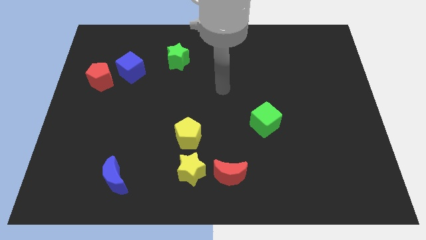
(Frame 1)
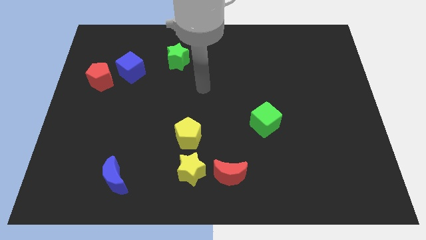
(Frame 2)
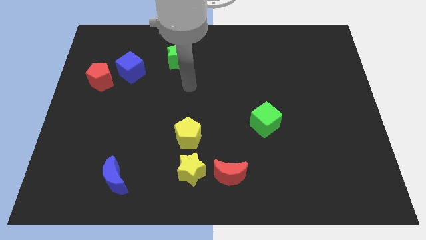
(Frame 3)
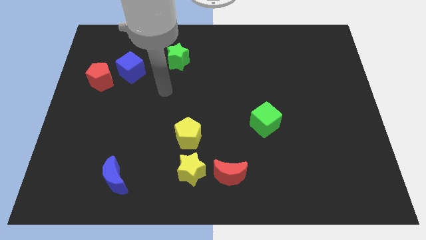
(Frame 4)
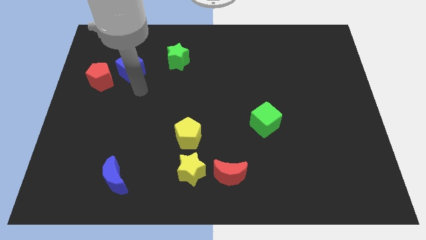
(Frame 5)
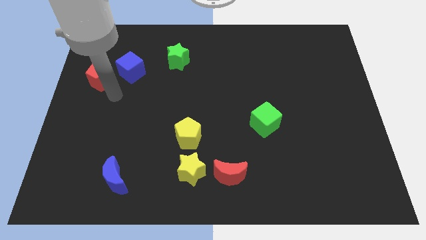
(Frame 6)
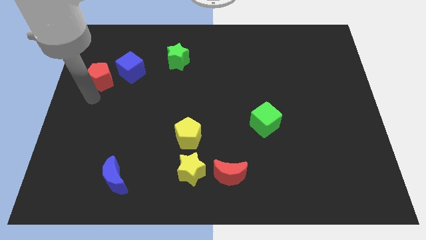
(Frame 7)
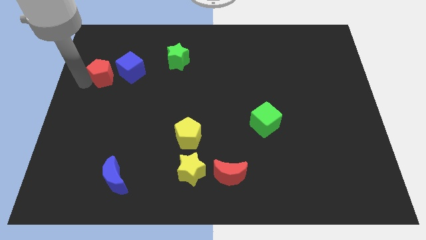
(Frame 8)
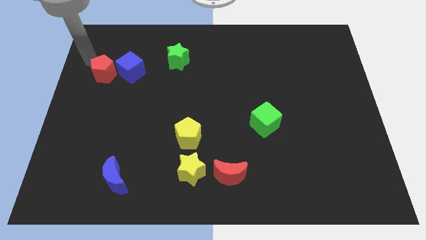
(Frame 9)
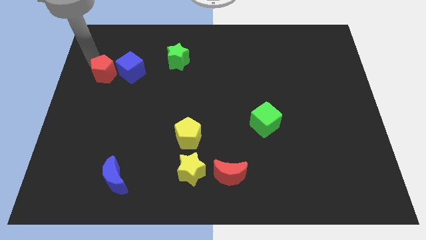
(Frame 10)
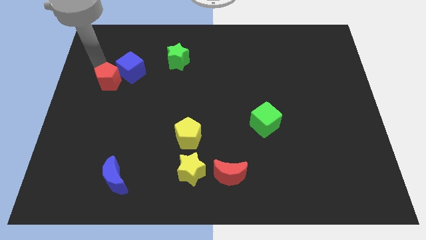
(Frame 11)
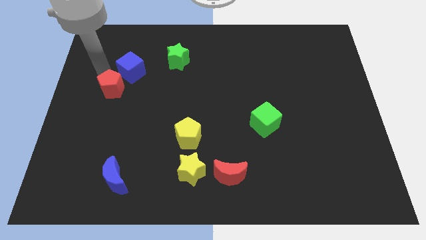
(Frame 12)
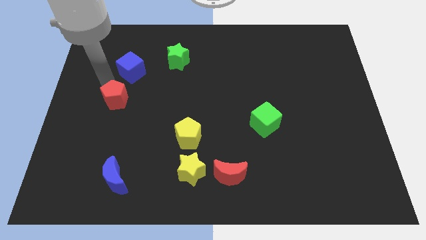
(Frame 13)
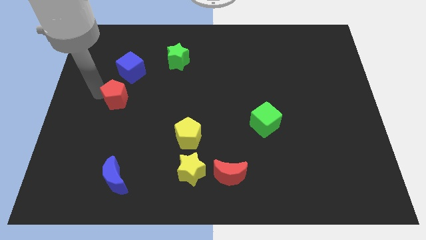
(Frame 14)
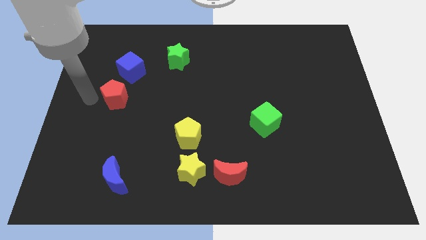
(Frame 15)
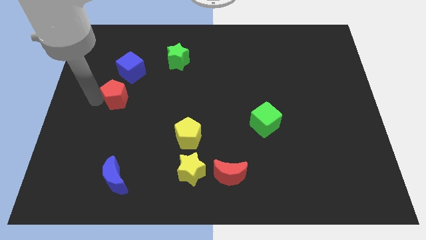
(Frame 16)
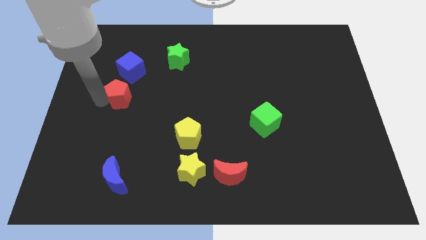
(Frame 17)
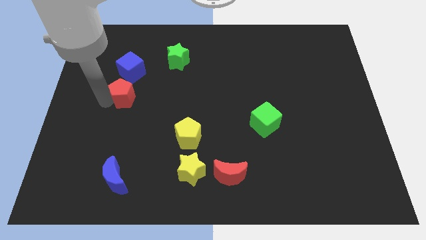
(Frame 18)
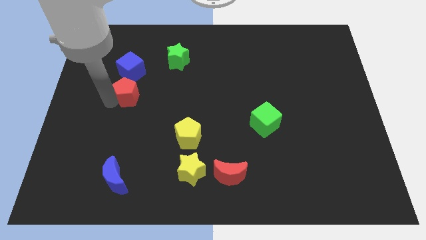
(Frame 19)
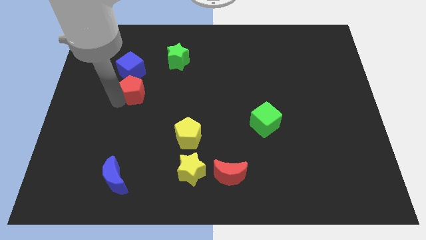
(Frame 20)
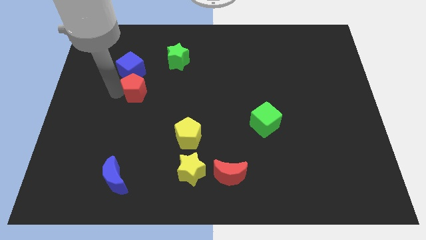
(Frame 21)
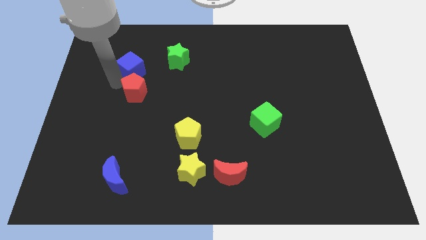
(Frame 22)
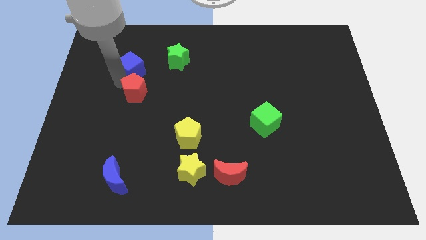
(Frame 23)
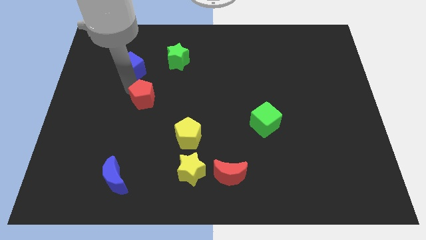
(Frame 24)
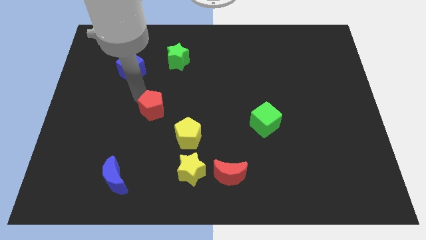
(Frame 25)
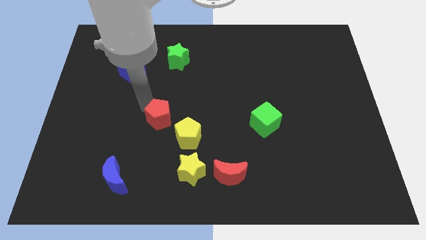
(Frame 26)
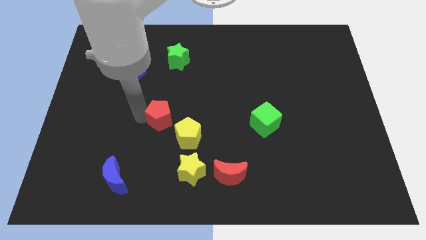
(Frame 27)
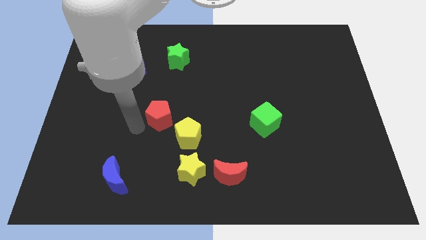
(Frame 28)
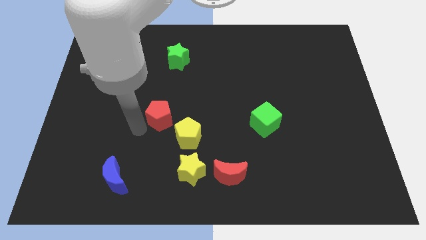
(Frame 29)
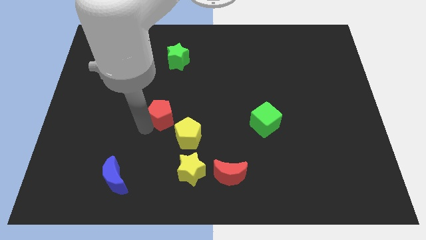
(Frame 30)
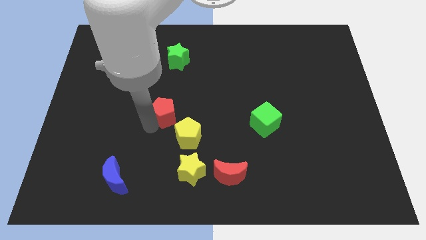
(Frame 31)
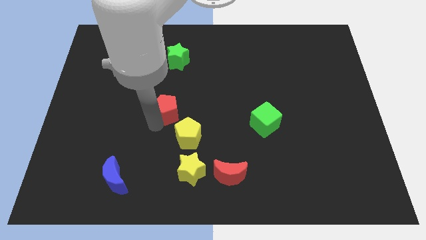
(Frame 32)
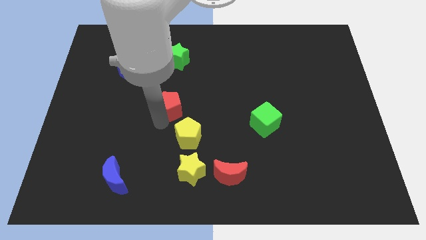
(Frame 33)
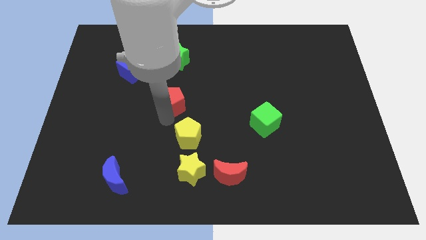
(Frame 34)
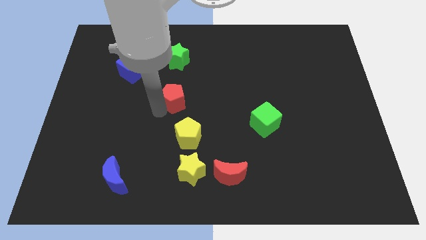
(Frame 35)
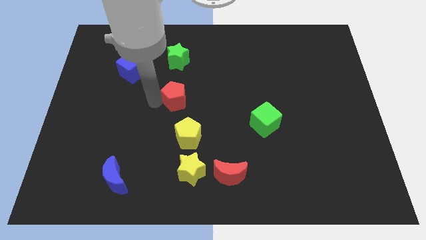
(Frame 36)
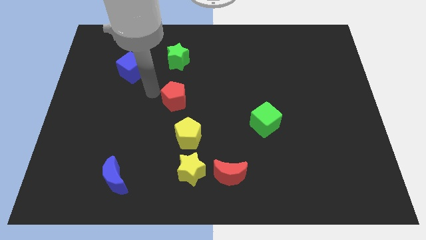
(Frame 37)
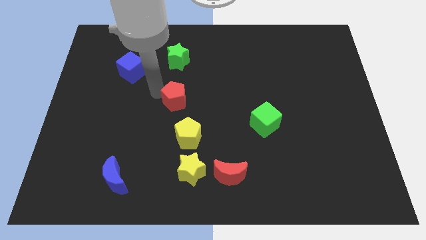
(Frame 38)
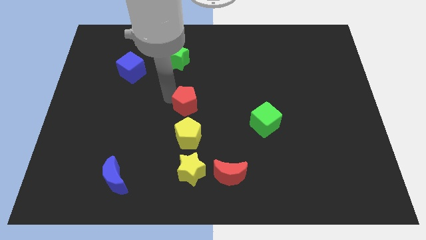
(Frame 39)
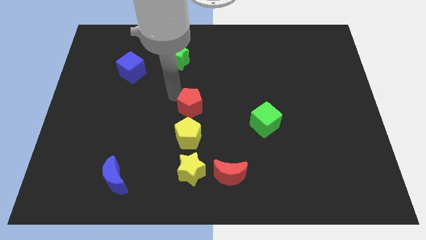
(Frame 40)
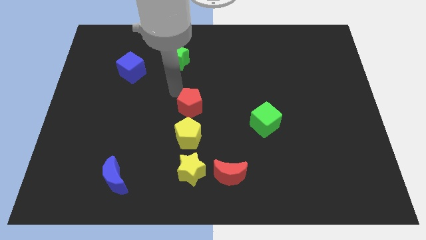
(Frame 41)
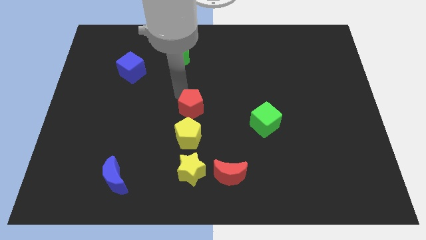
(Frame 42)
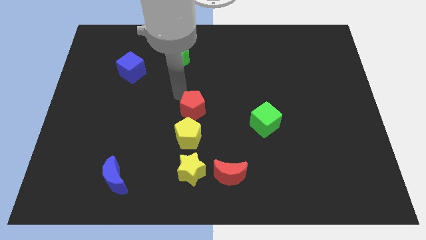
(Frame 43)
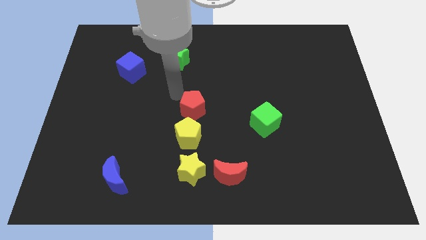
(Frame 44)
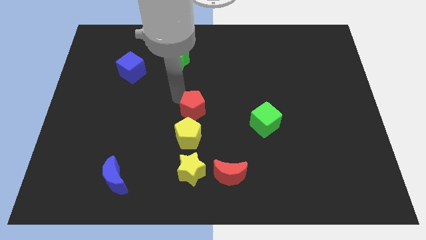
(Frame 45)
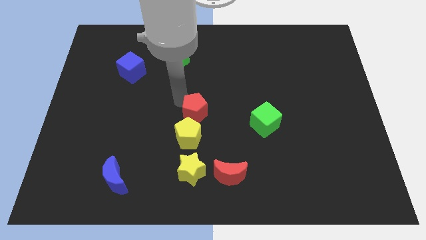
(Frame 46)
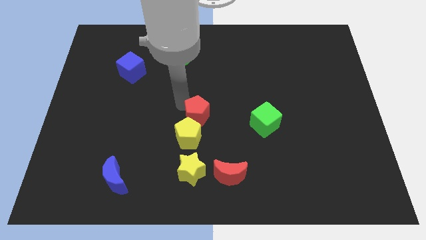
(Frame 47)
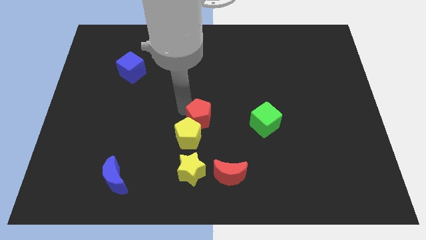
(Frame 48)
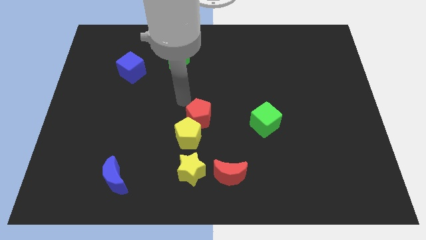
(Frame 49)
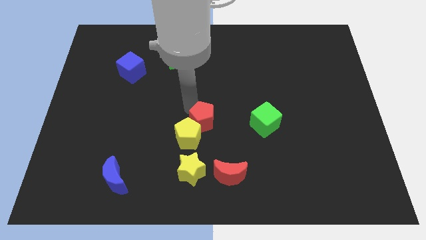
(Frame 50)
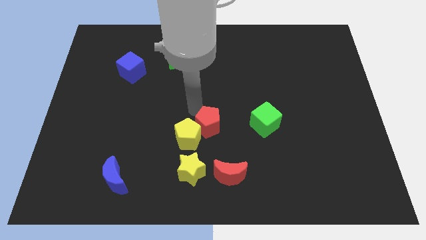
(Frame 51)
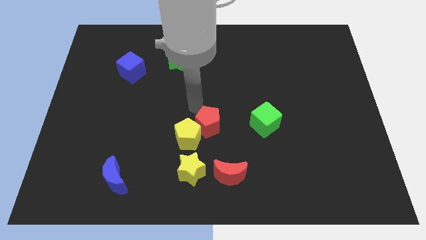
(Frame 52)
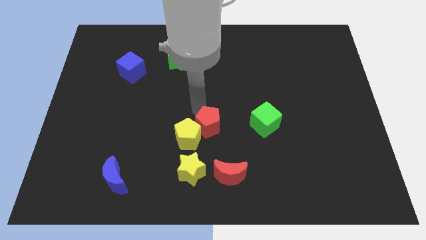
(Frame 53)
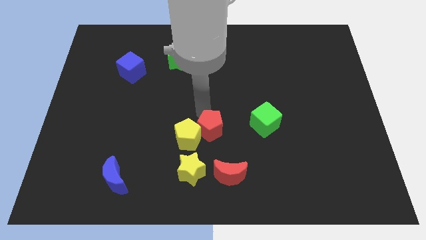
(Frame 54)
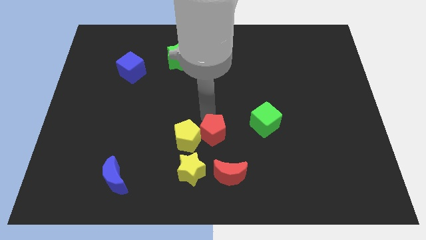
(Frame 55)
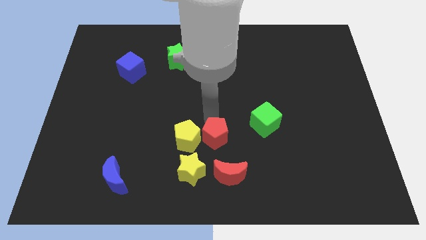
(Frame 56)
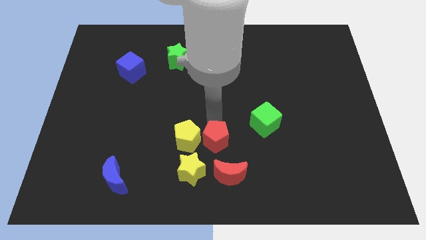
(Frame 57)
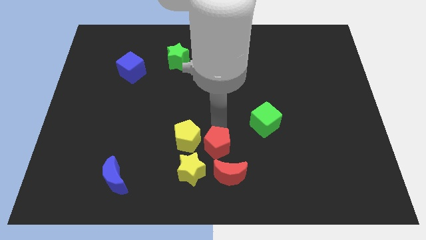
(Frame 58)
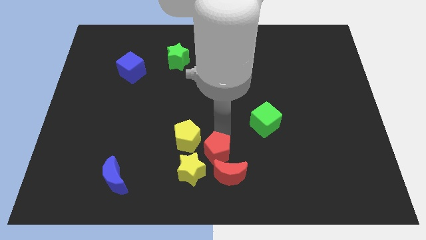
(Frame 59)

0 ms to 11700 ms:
push the red pentagon to the right side of the yellow star
